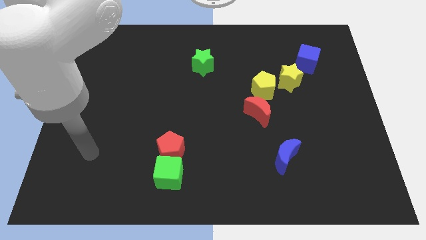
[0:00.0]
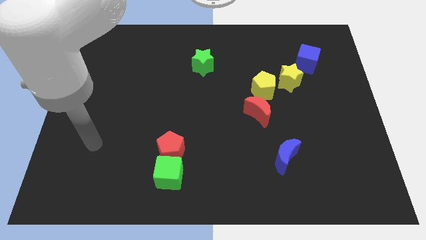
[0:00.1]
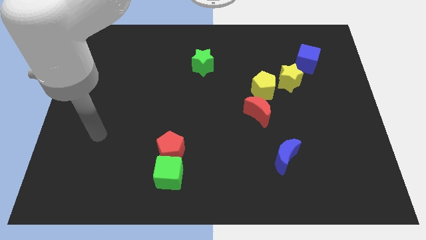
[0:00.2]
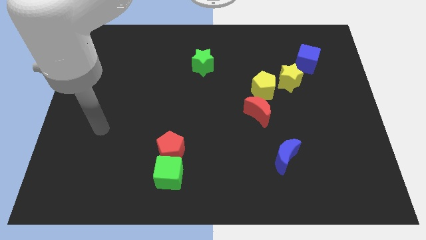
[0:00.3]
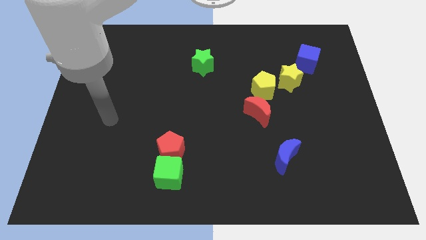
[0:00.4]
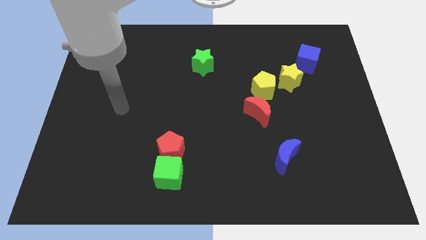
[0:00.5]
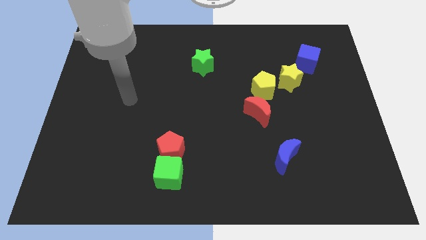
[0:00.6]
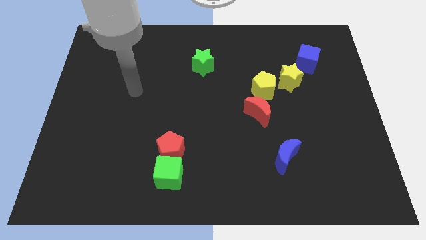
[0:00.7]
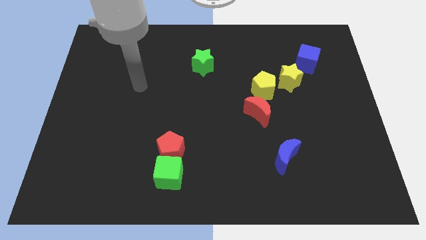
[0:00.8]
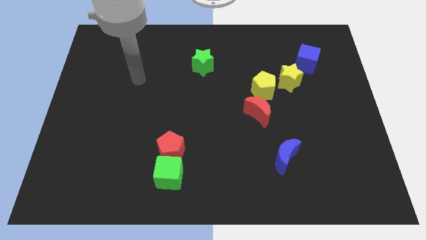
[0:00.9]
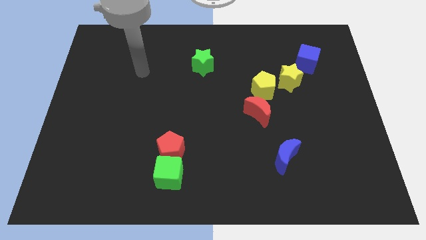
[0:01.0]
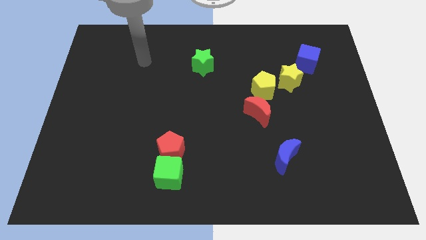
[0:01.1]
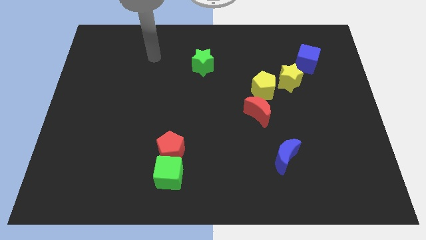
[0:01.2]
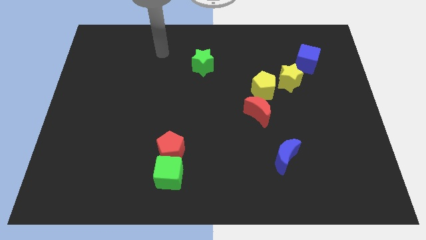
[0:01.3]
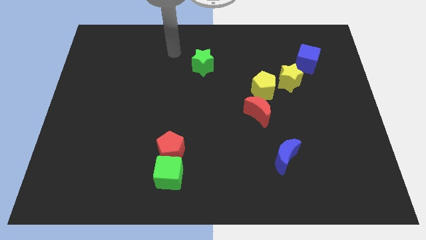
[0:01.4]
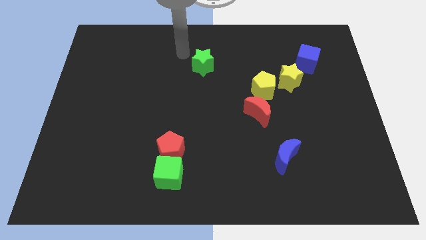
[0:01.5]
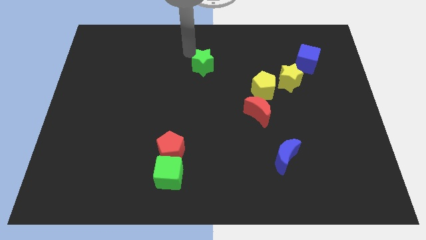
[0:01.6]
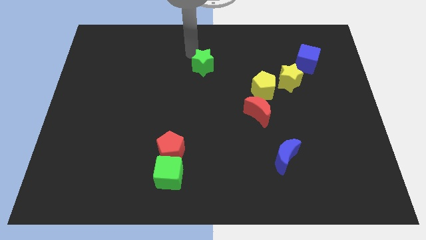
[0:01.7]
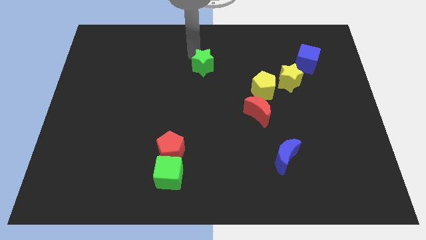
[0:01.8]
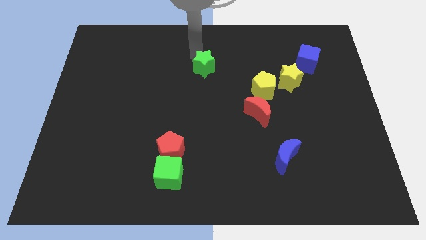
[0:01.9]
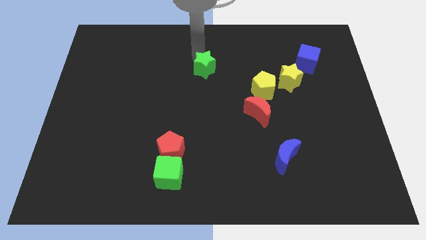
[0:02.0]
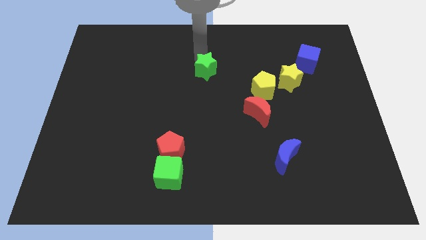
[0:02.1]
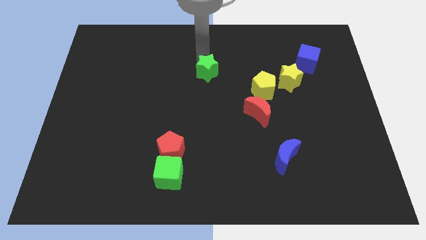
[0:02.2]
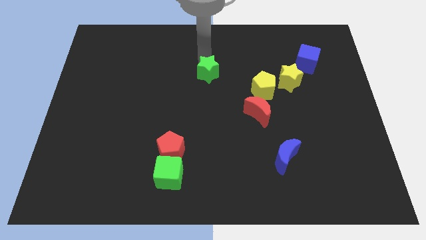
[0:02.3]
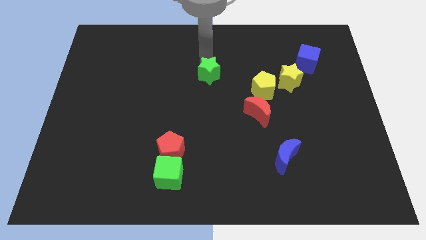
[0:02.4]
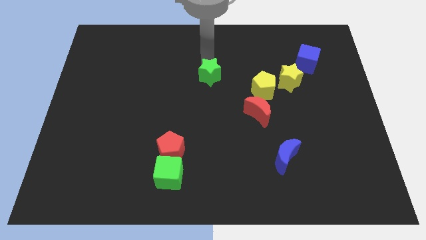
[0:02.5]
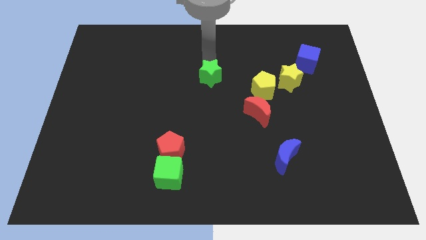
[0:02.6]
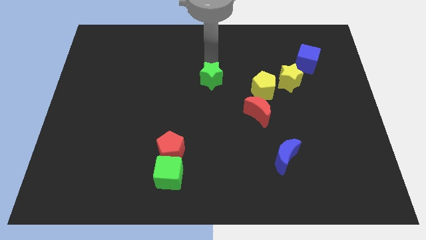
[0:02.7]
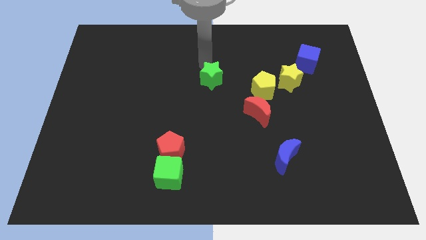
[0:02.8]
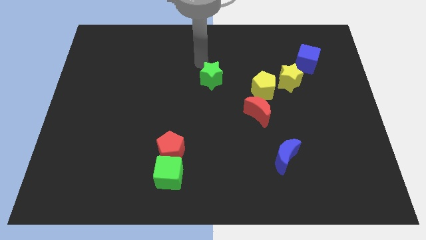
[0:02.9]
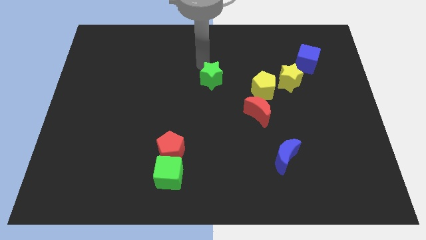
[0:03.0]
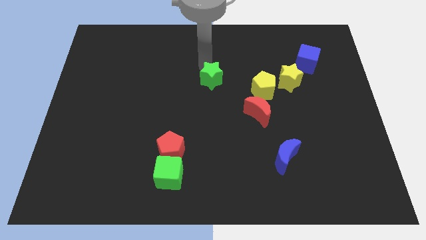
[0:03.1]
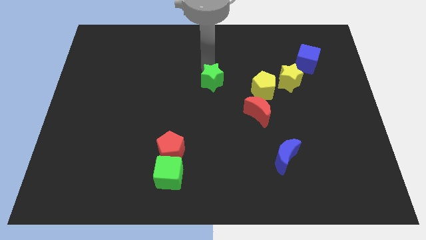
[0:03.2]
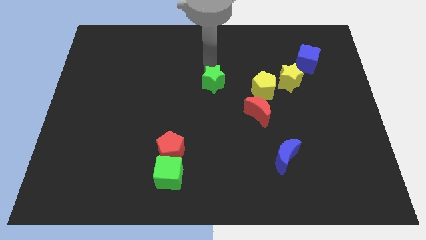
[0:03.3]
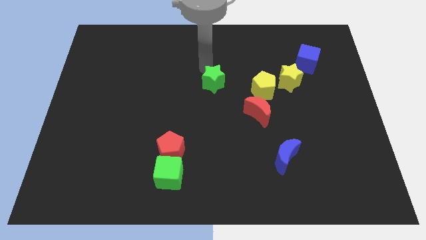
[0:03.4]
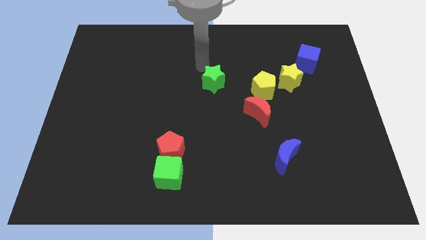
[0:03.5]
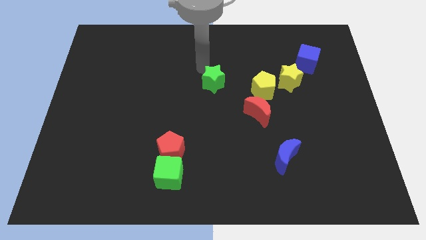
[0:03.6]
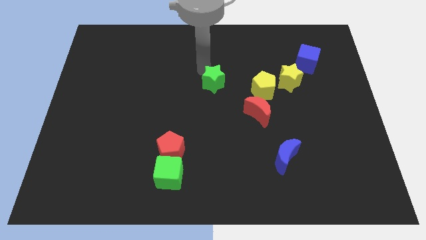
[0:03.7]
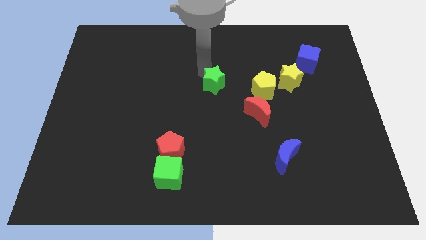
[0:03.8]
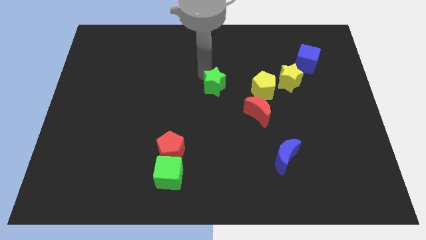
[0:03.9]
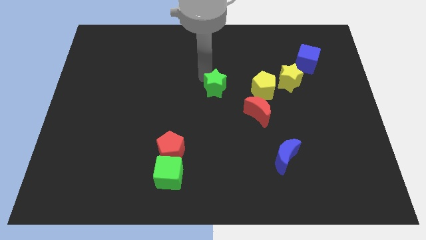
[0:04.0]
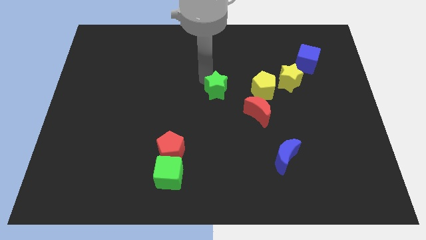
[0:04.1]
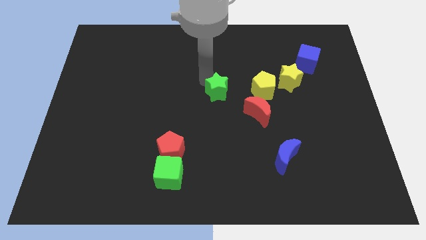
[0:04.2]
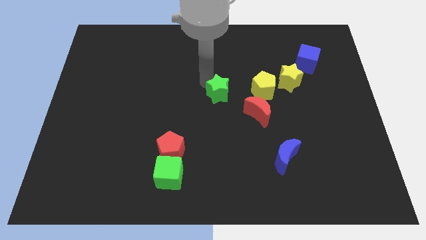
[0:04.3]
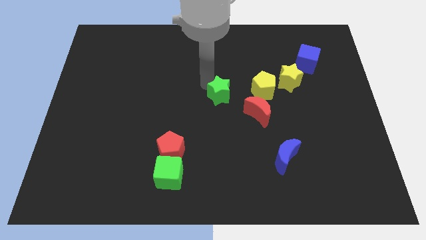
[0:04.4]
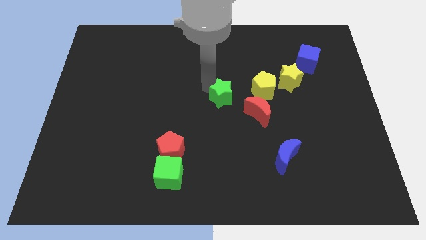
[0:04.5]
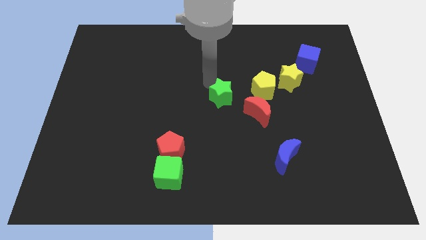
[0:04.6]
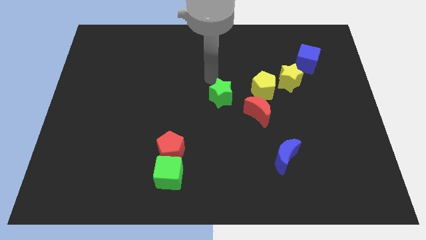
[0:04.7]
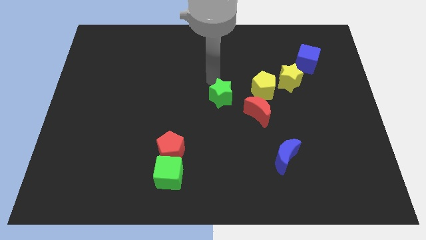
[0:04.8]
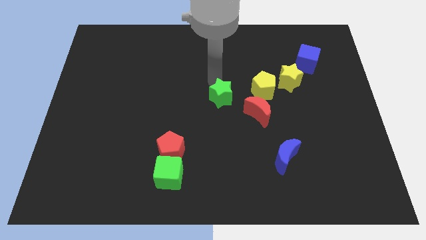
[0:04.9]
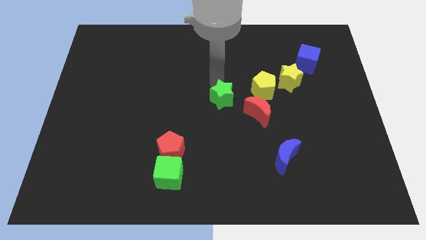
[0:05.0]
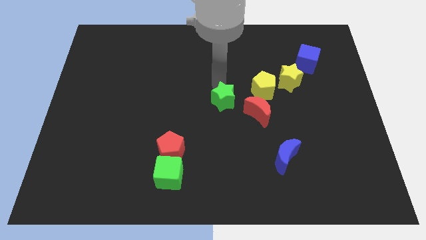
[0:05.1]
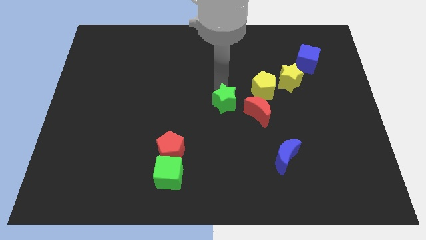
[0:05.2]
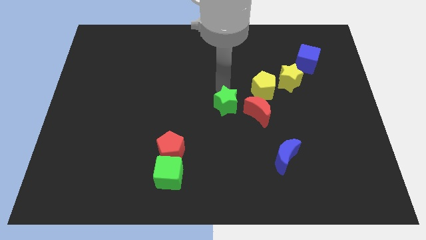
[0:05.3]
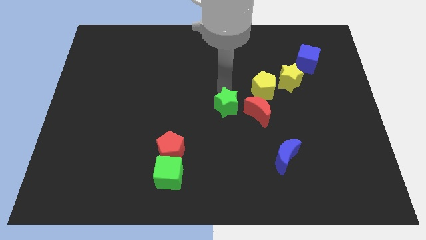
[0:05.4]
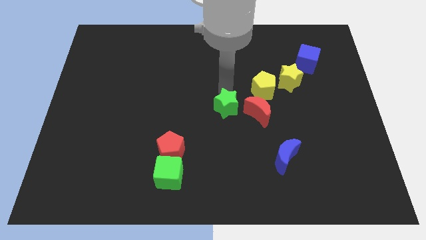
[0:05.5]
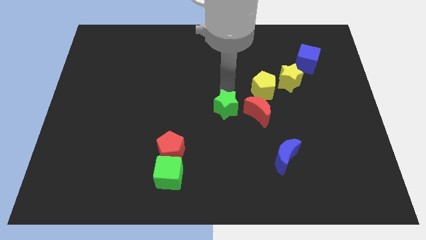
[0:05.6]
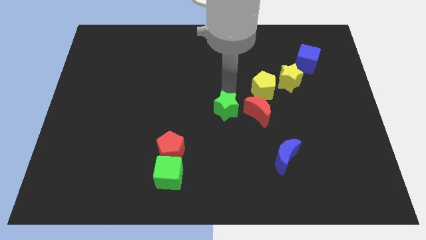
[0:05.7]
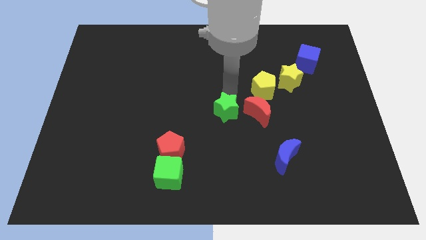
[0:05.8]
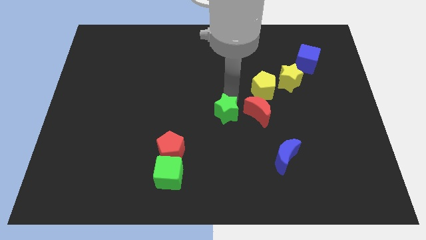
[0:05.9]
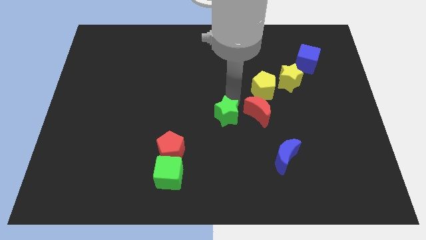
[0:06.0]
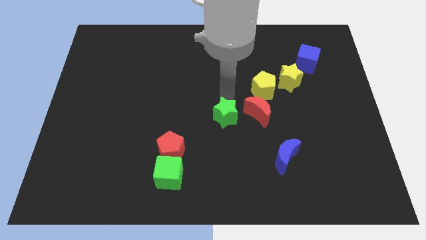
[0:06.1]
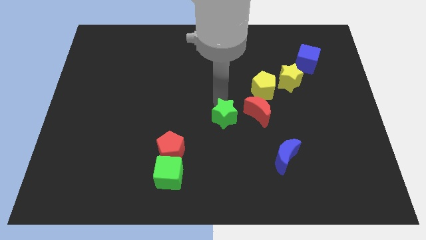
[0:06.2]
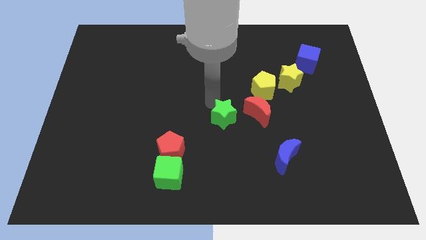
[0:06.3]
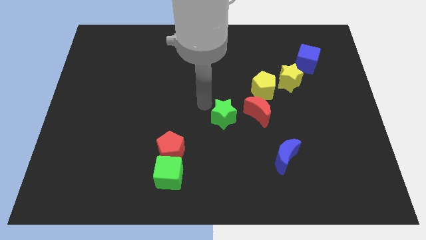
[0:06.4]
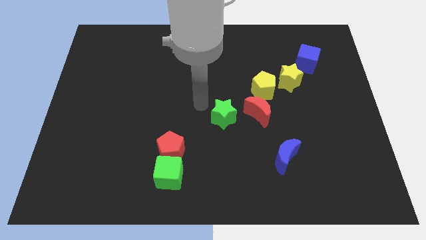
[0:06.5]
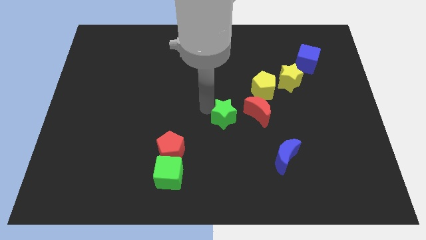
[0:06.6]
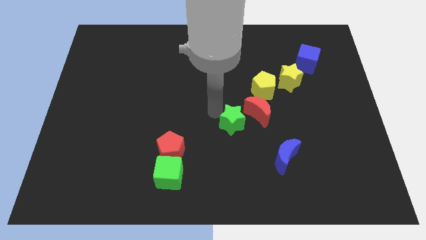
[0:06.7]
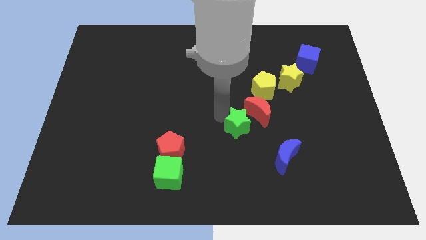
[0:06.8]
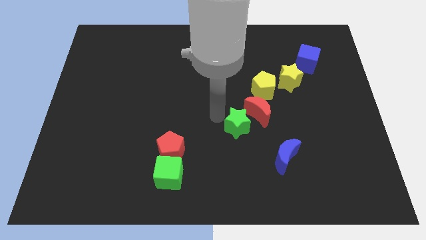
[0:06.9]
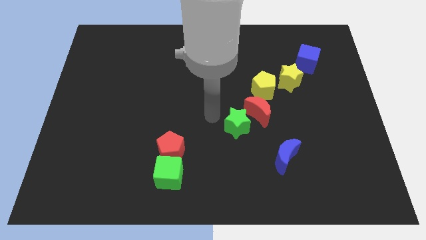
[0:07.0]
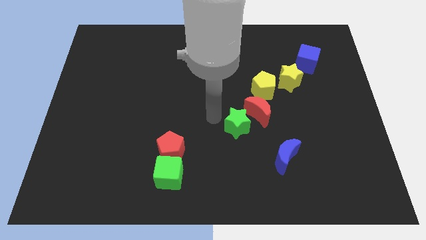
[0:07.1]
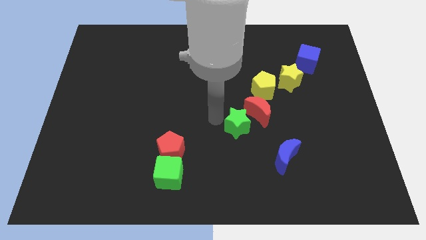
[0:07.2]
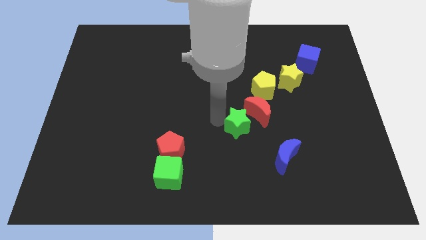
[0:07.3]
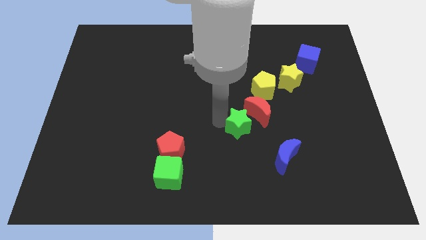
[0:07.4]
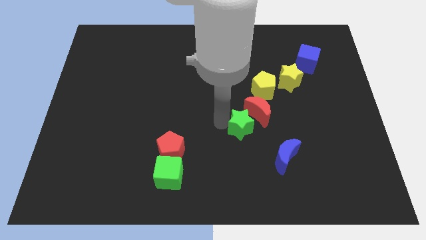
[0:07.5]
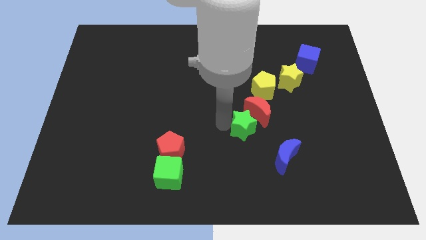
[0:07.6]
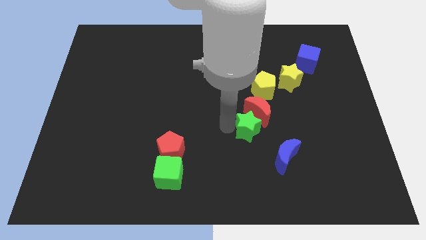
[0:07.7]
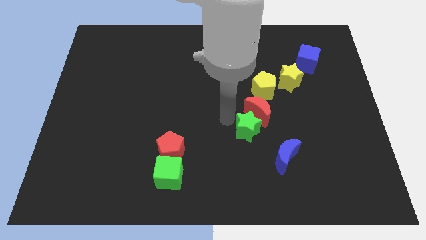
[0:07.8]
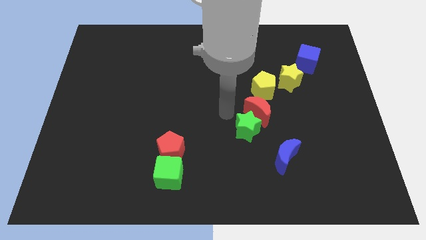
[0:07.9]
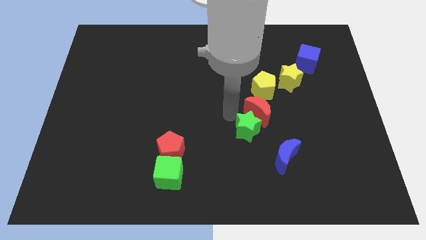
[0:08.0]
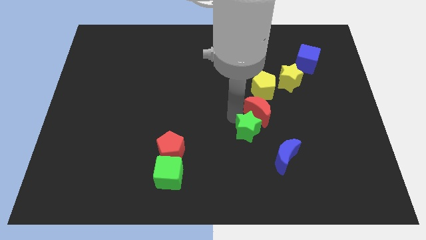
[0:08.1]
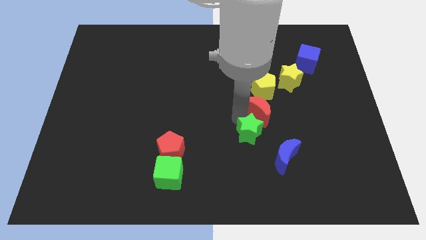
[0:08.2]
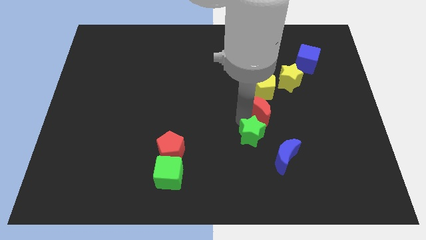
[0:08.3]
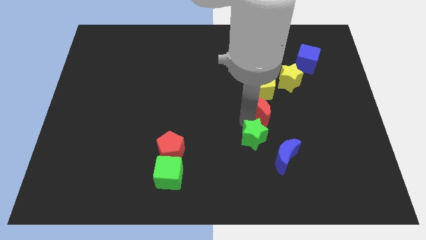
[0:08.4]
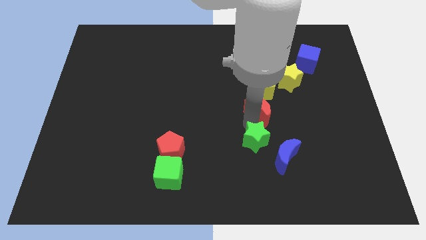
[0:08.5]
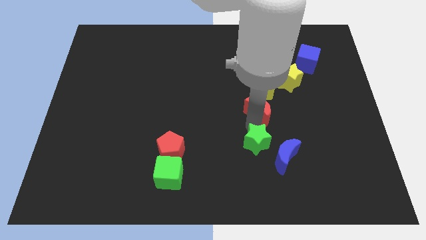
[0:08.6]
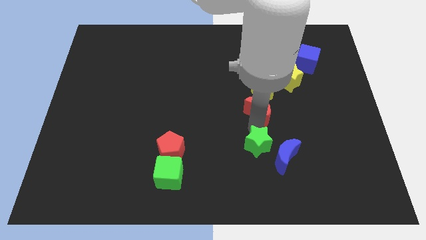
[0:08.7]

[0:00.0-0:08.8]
slide the green star to the blue moon
